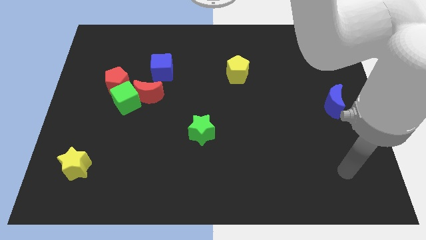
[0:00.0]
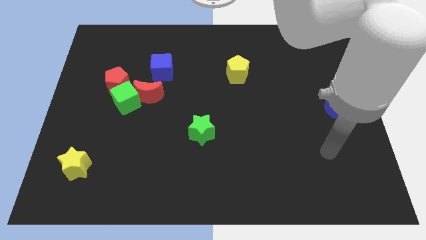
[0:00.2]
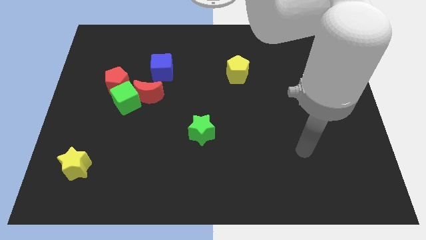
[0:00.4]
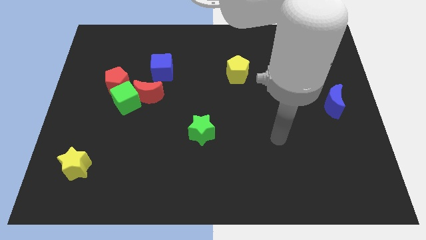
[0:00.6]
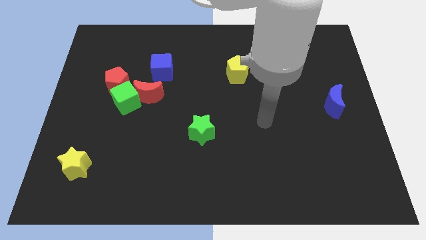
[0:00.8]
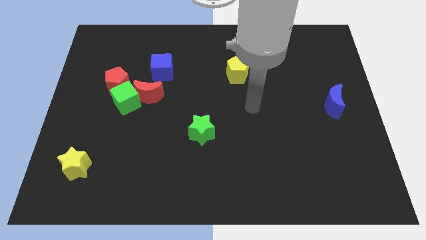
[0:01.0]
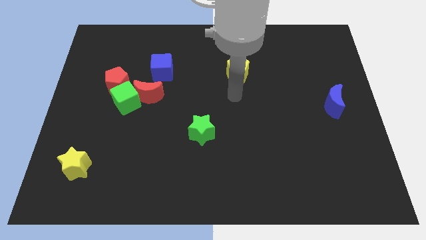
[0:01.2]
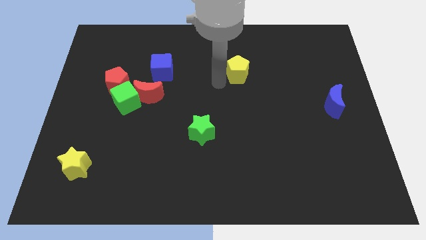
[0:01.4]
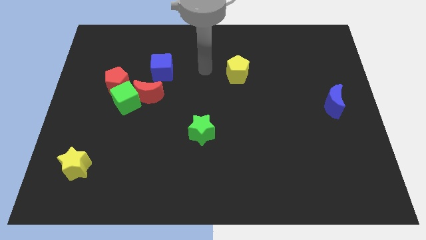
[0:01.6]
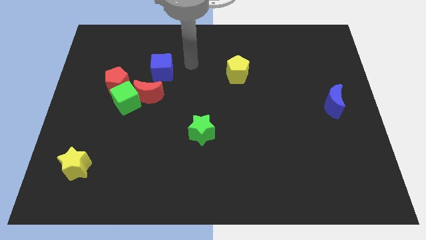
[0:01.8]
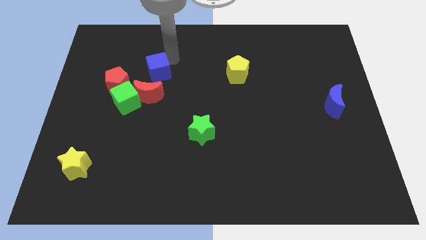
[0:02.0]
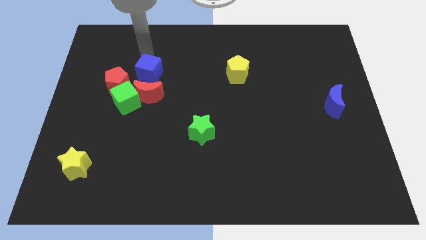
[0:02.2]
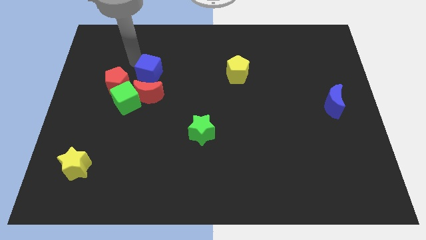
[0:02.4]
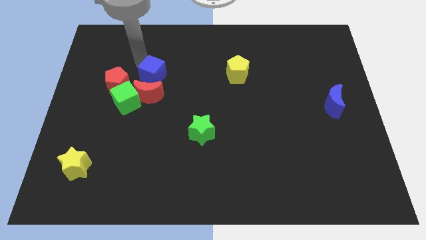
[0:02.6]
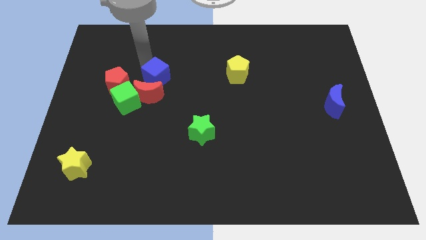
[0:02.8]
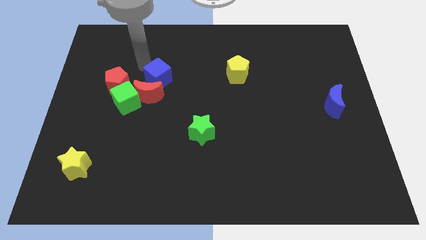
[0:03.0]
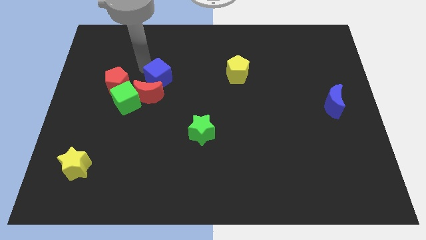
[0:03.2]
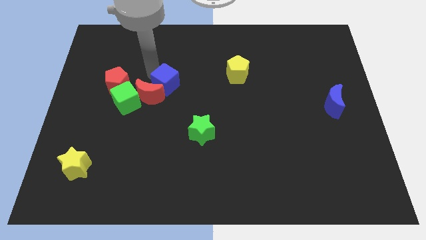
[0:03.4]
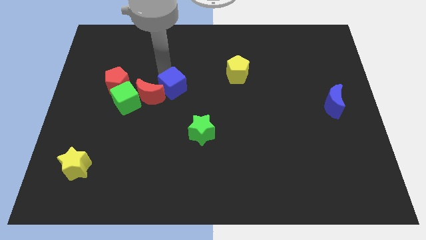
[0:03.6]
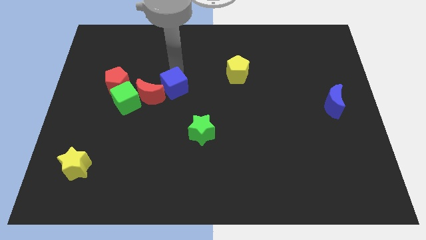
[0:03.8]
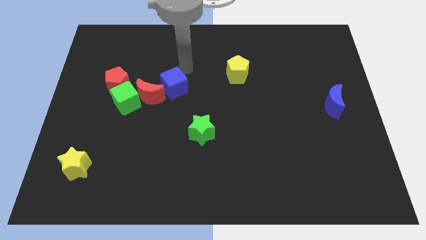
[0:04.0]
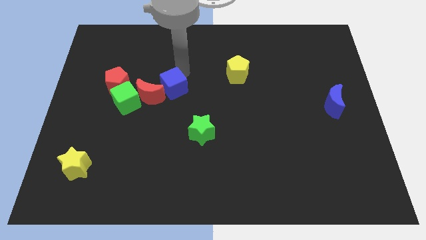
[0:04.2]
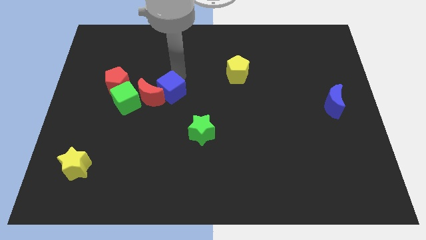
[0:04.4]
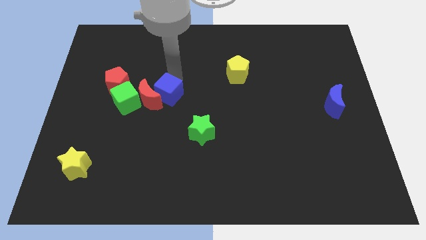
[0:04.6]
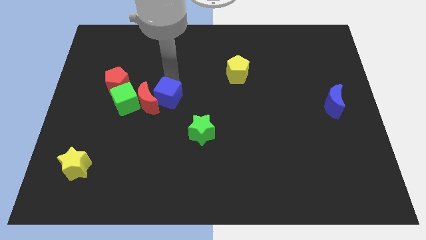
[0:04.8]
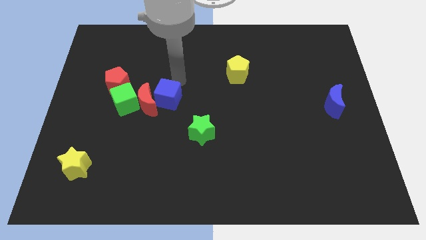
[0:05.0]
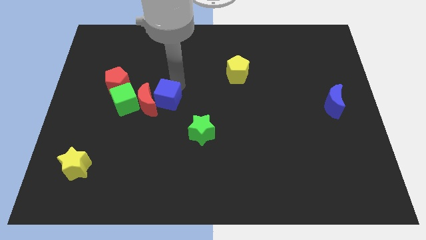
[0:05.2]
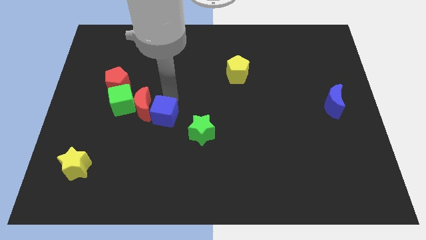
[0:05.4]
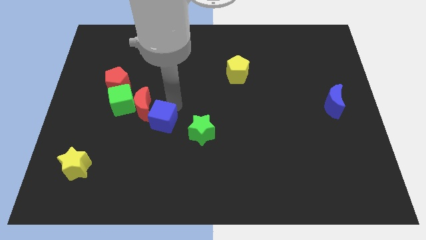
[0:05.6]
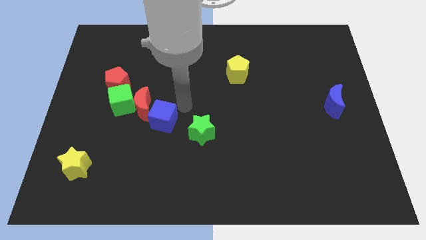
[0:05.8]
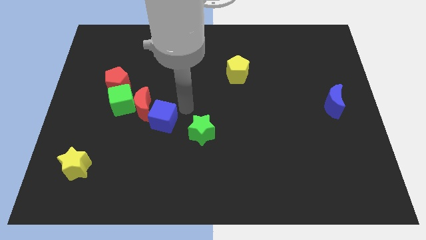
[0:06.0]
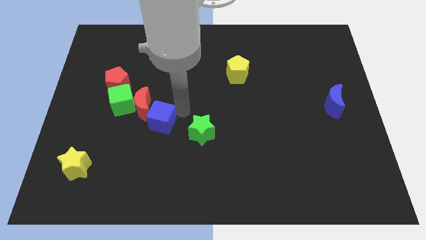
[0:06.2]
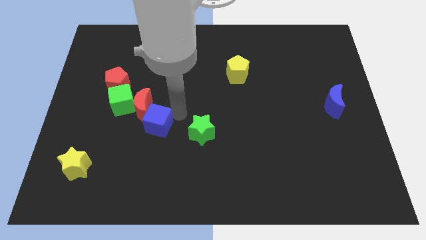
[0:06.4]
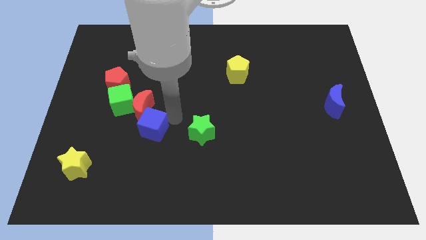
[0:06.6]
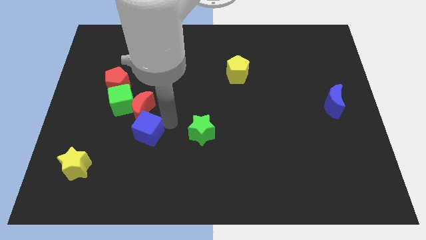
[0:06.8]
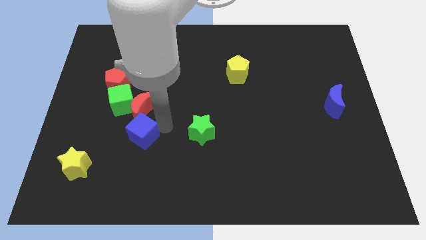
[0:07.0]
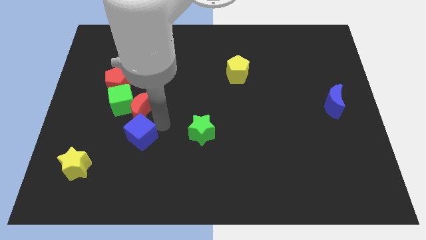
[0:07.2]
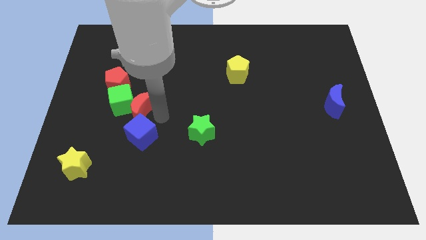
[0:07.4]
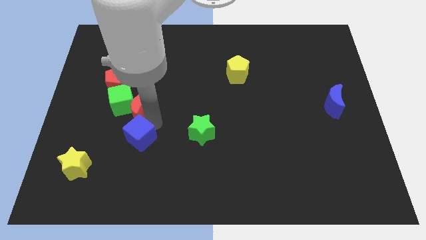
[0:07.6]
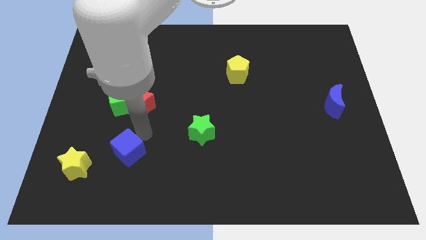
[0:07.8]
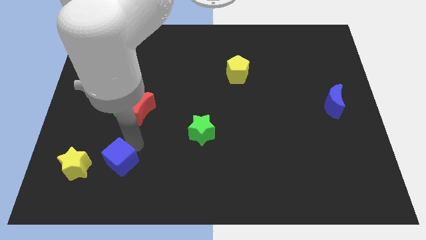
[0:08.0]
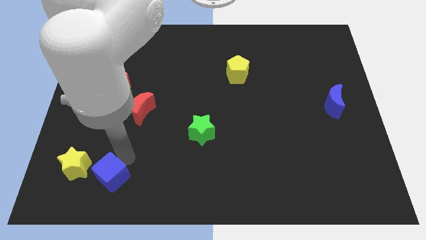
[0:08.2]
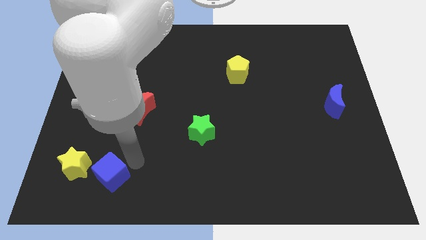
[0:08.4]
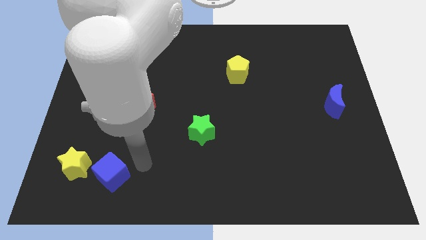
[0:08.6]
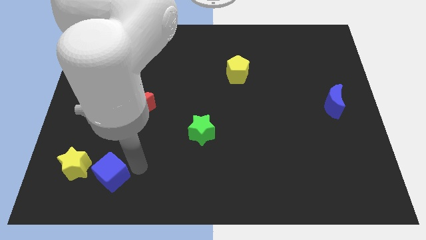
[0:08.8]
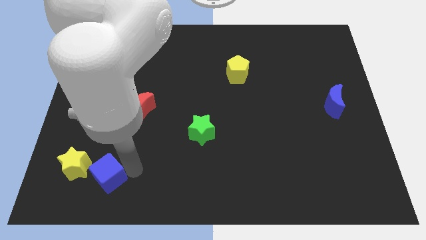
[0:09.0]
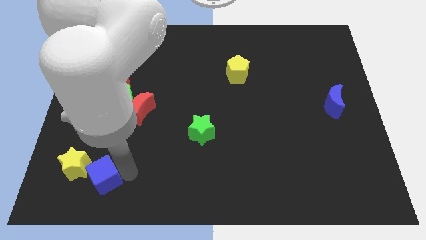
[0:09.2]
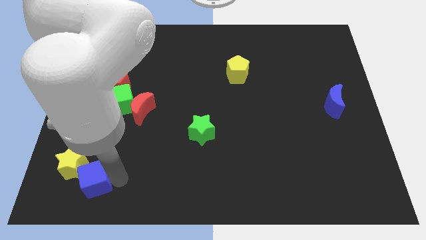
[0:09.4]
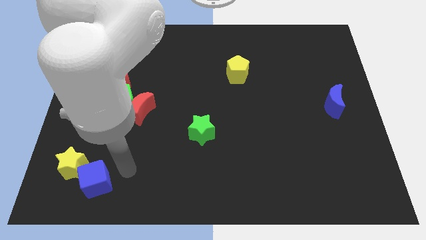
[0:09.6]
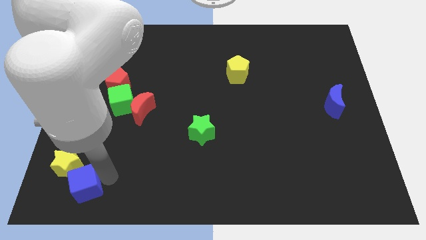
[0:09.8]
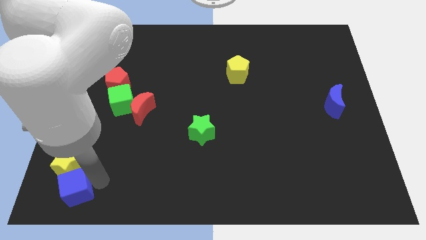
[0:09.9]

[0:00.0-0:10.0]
slide the blue cube to the lower left corner

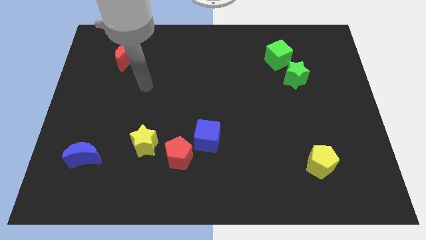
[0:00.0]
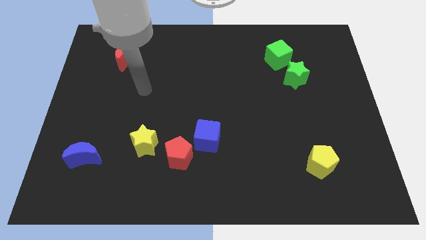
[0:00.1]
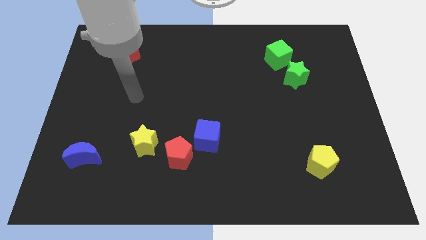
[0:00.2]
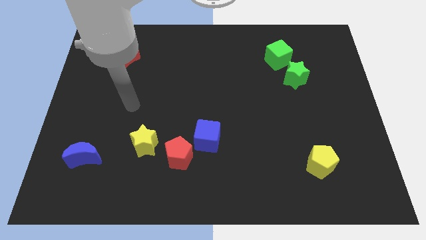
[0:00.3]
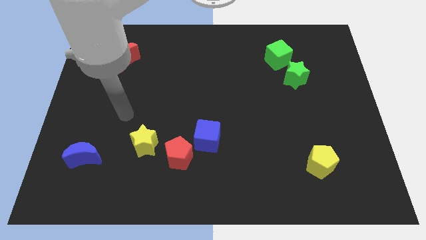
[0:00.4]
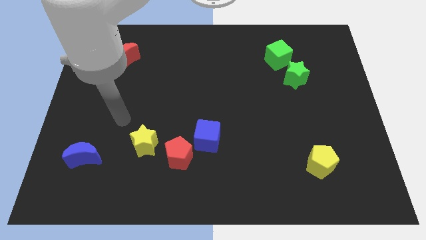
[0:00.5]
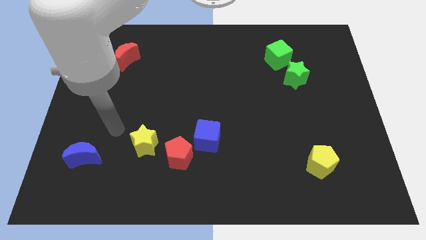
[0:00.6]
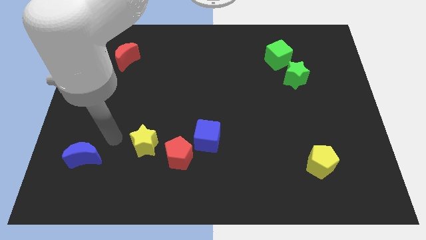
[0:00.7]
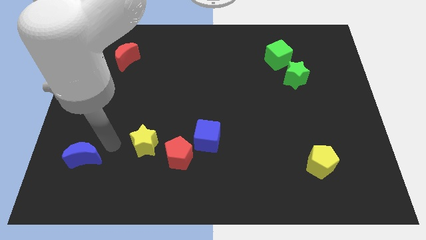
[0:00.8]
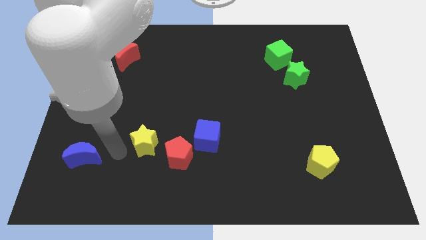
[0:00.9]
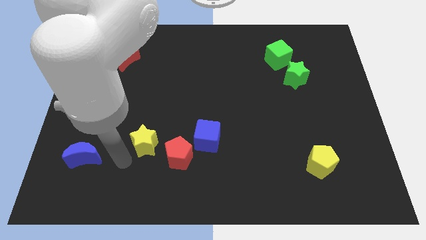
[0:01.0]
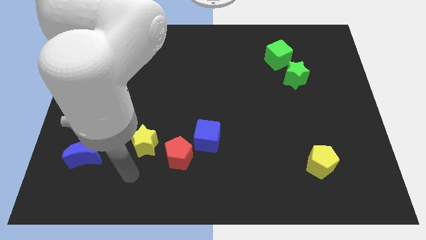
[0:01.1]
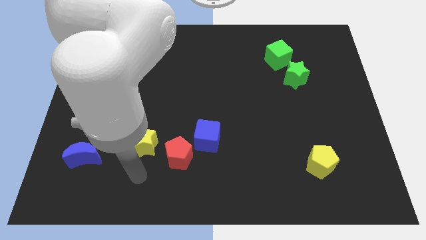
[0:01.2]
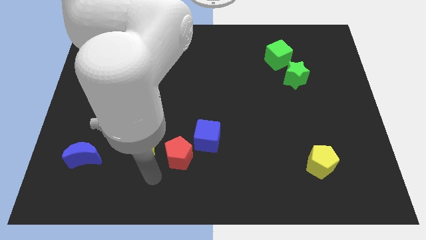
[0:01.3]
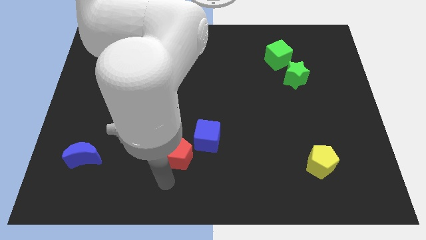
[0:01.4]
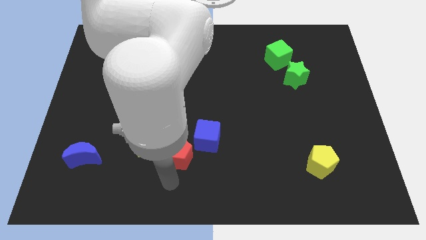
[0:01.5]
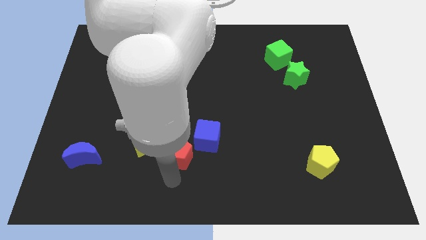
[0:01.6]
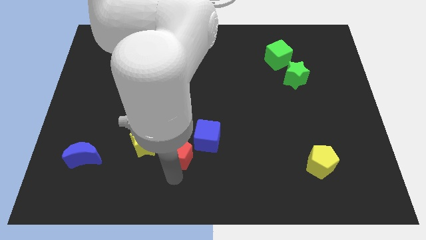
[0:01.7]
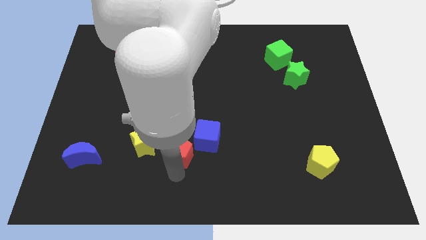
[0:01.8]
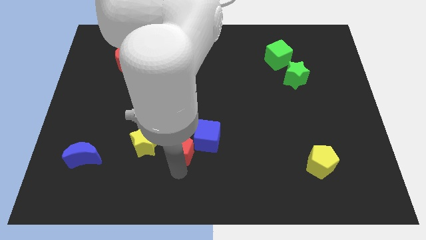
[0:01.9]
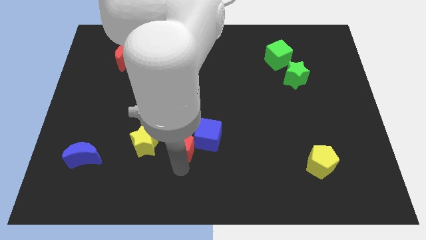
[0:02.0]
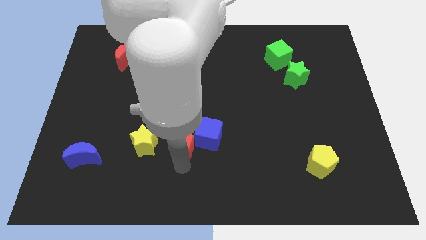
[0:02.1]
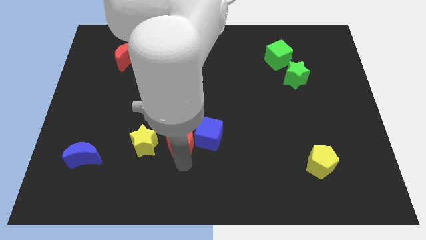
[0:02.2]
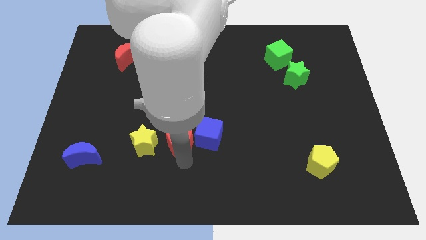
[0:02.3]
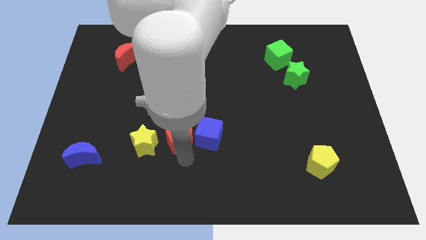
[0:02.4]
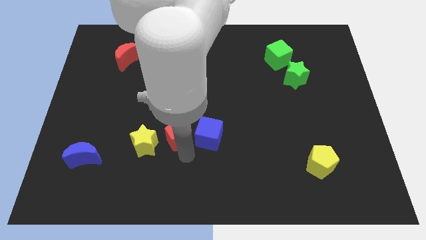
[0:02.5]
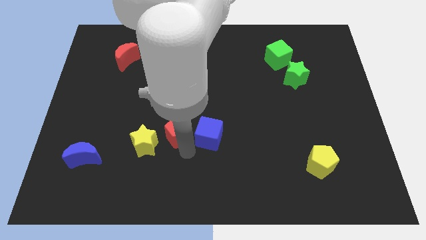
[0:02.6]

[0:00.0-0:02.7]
put the red pentagon to the center of the board
